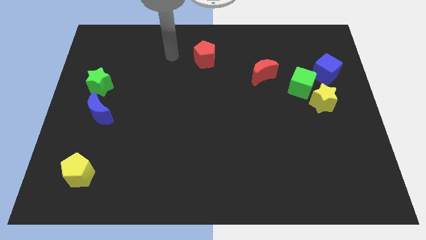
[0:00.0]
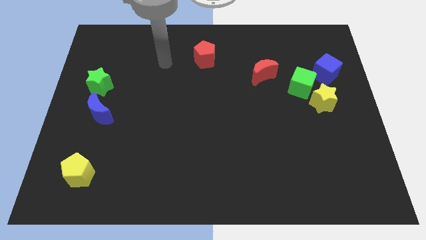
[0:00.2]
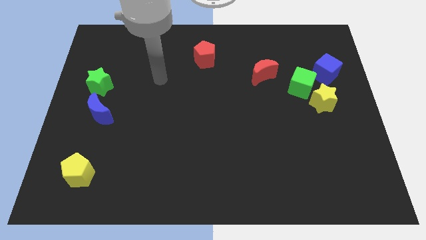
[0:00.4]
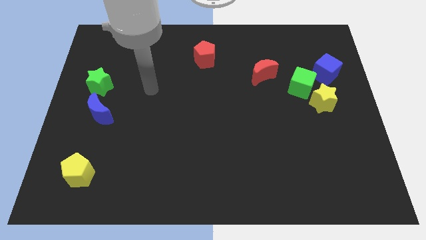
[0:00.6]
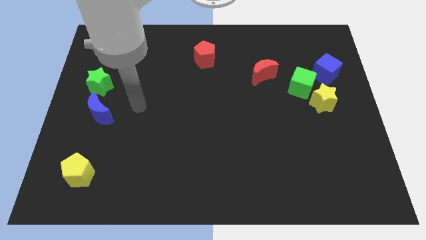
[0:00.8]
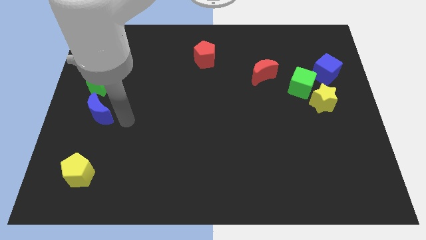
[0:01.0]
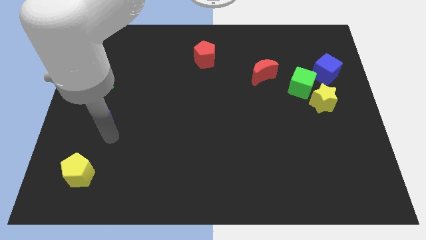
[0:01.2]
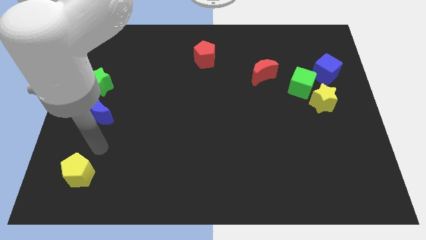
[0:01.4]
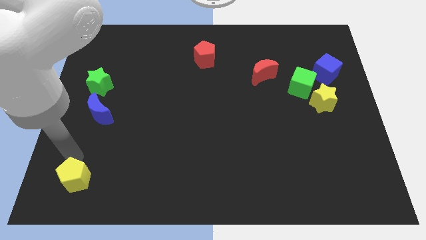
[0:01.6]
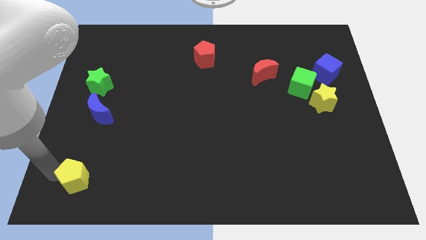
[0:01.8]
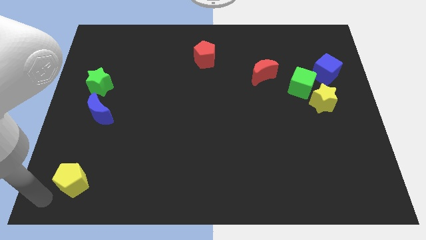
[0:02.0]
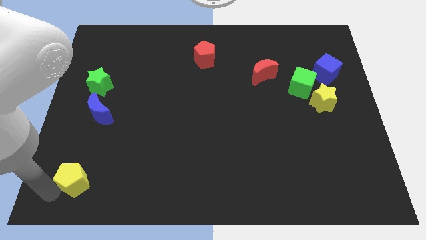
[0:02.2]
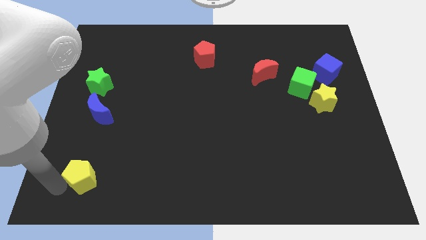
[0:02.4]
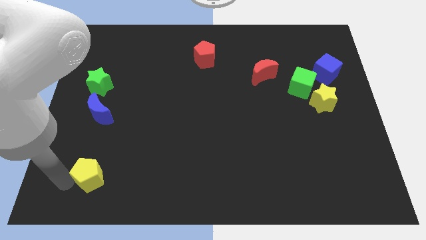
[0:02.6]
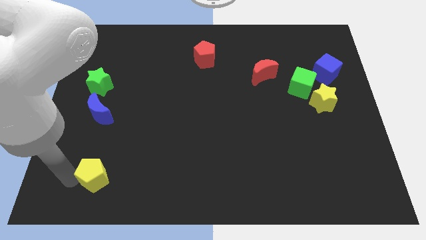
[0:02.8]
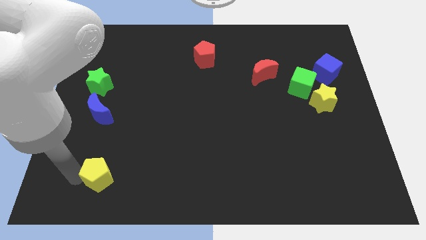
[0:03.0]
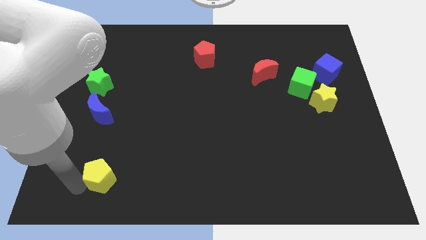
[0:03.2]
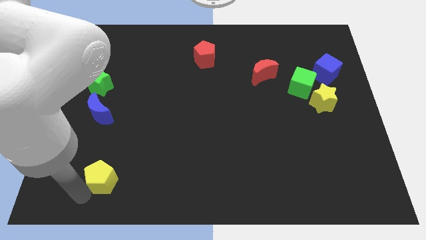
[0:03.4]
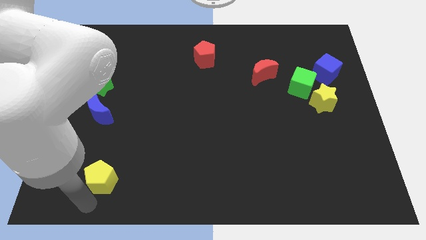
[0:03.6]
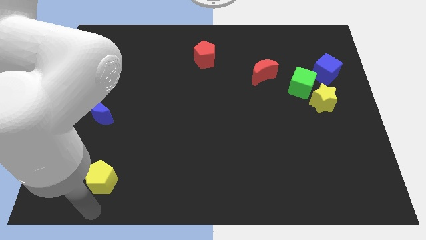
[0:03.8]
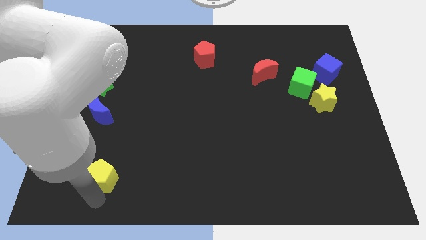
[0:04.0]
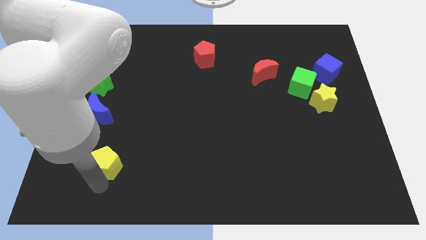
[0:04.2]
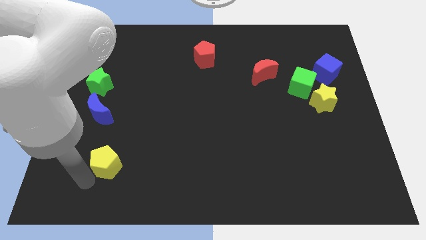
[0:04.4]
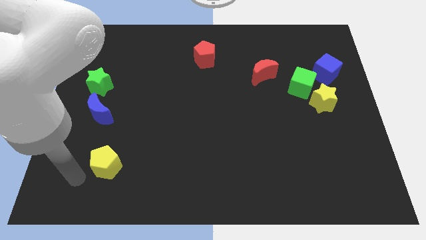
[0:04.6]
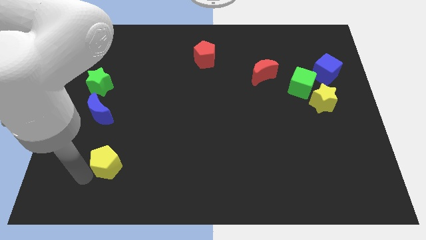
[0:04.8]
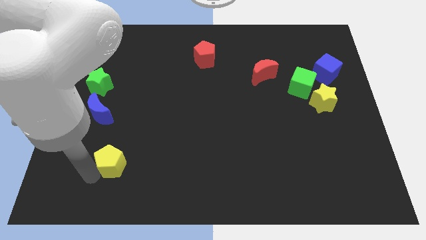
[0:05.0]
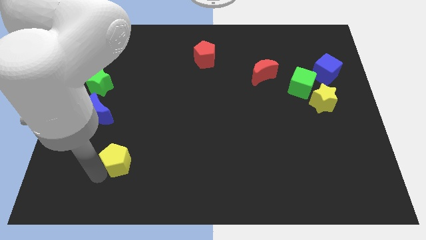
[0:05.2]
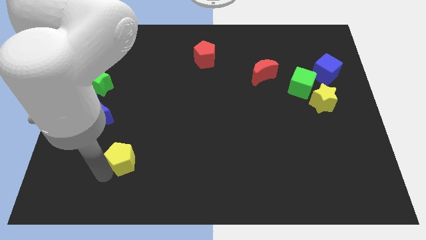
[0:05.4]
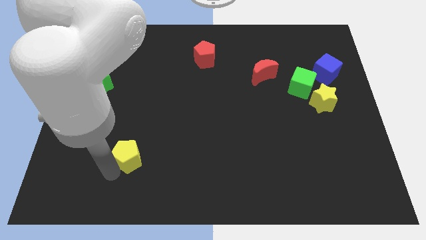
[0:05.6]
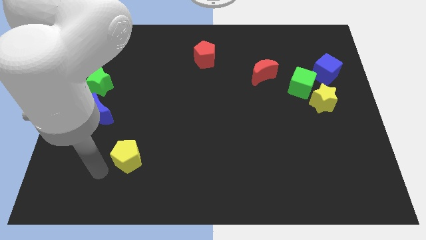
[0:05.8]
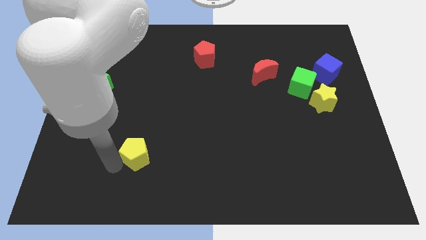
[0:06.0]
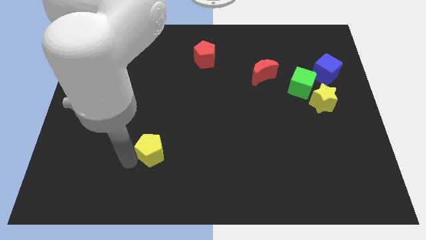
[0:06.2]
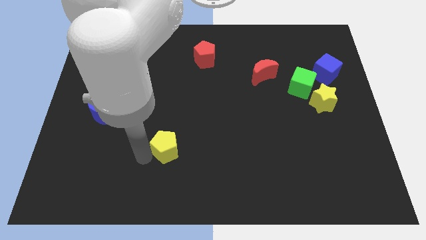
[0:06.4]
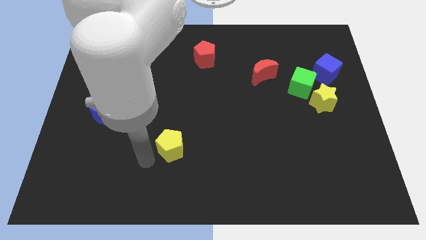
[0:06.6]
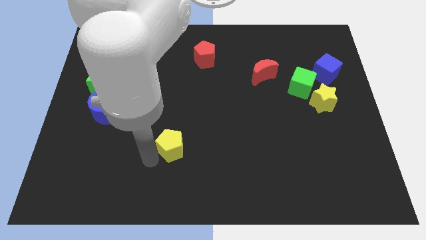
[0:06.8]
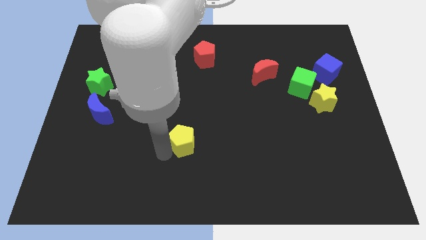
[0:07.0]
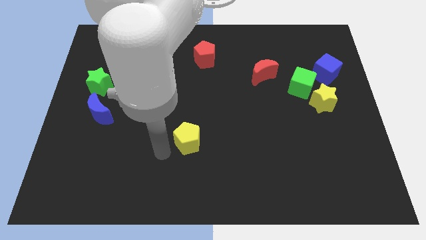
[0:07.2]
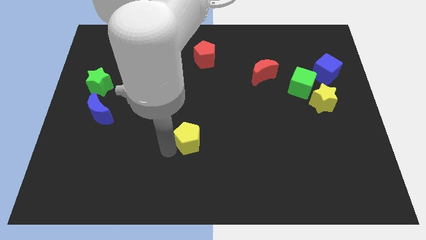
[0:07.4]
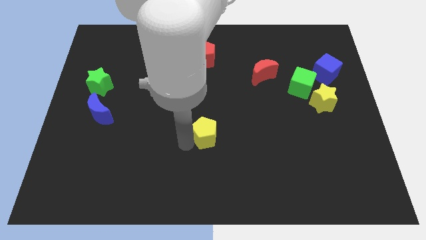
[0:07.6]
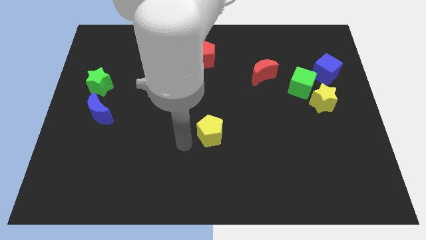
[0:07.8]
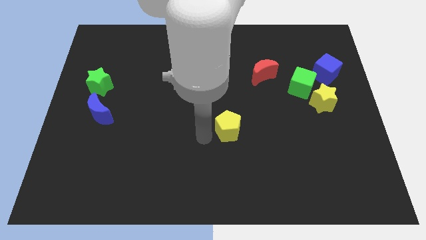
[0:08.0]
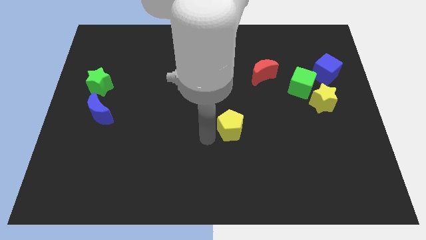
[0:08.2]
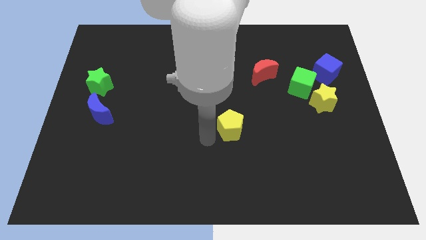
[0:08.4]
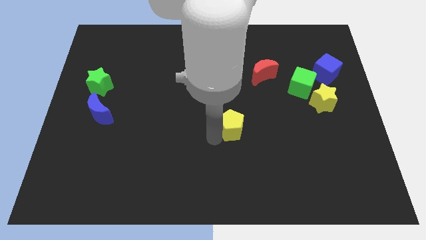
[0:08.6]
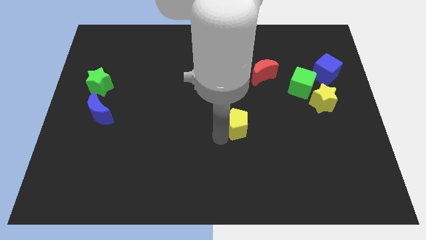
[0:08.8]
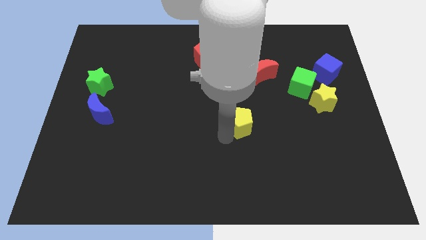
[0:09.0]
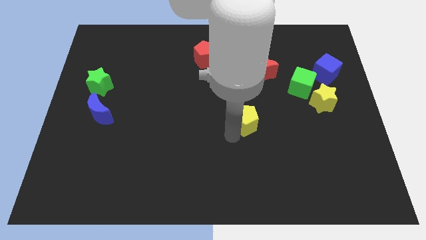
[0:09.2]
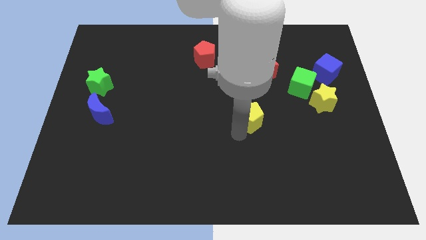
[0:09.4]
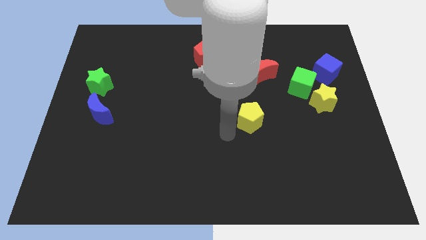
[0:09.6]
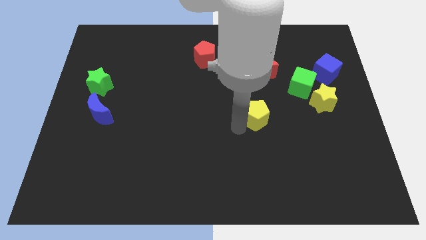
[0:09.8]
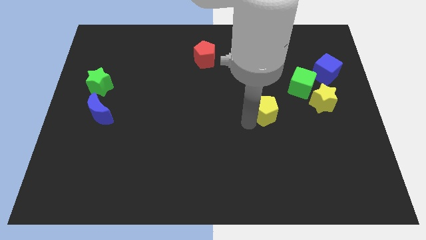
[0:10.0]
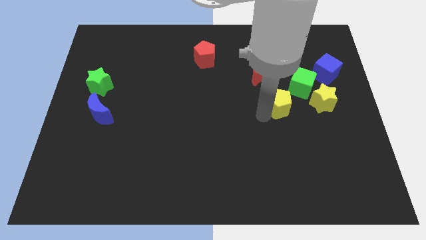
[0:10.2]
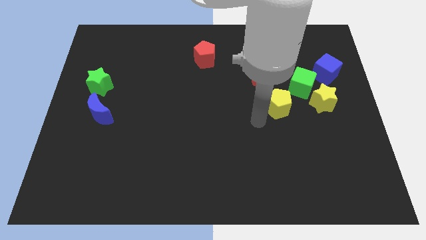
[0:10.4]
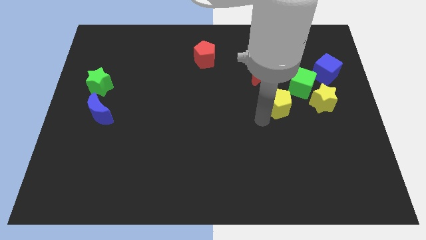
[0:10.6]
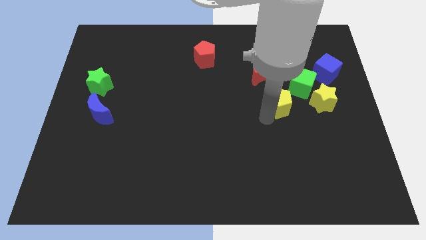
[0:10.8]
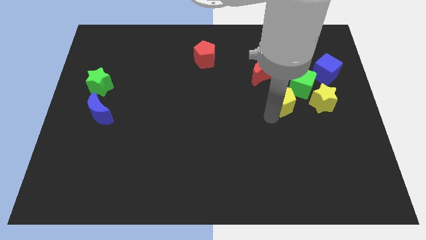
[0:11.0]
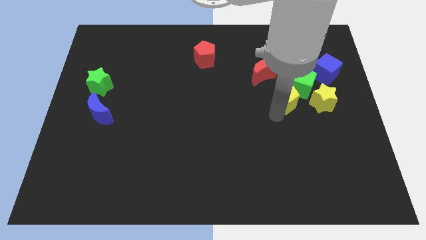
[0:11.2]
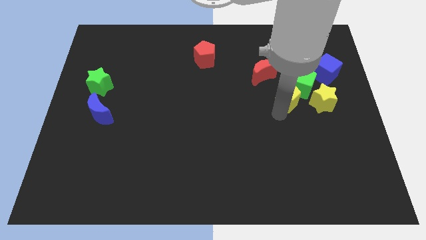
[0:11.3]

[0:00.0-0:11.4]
slide the yellow pentagon towards the green cube

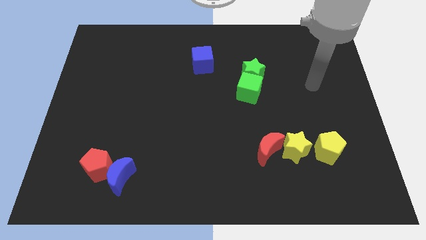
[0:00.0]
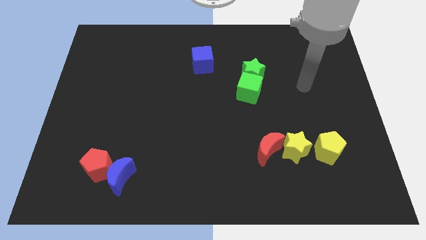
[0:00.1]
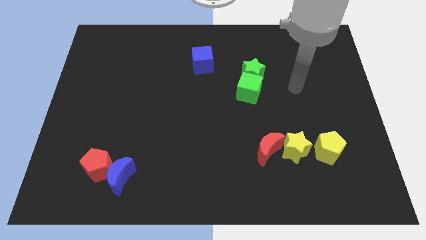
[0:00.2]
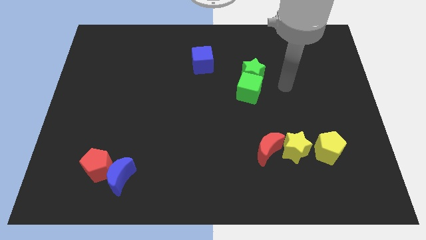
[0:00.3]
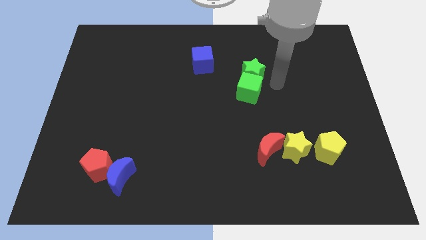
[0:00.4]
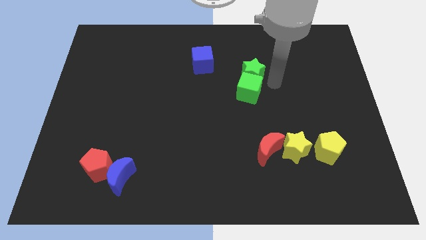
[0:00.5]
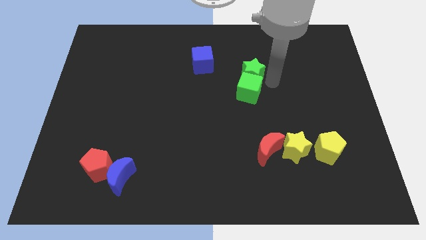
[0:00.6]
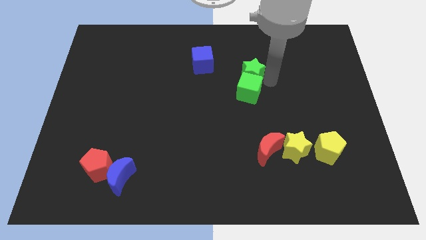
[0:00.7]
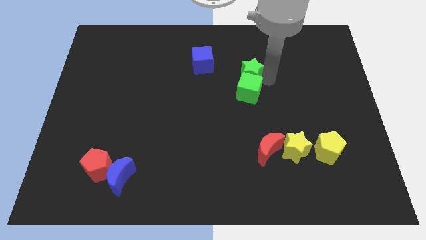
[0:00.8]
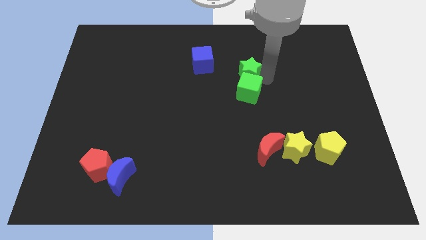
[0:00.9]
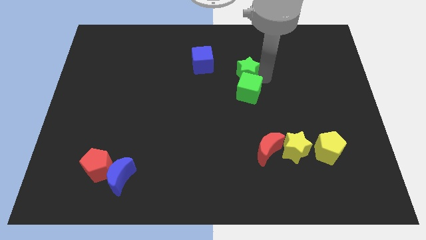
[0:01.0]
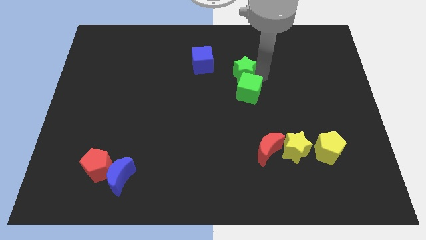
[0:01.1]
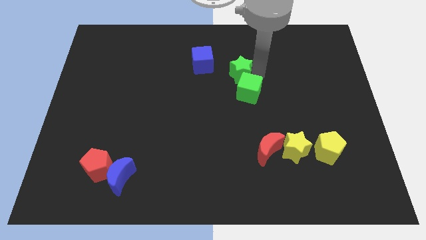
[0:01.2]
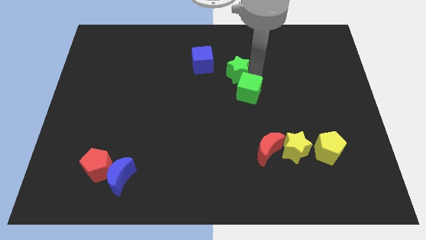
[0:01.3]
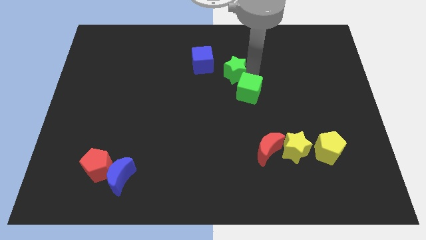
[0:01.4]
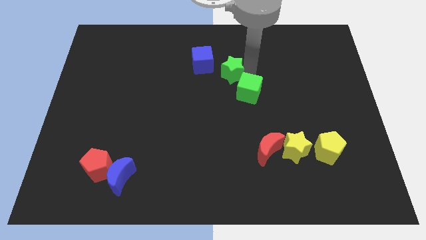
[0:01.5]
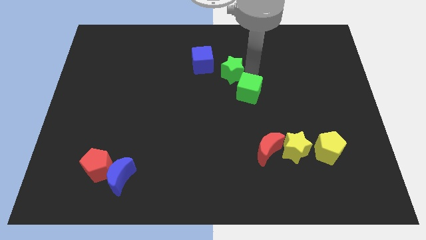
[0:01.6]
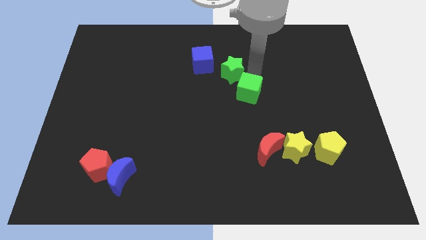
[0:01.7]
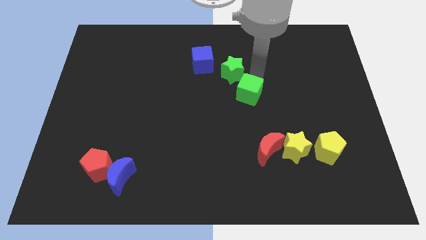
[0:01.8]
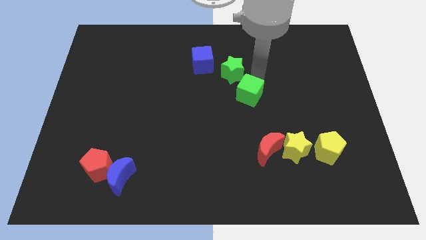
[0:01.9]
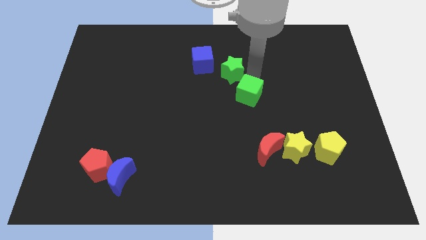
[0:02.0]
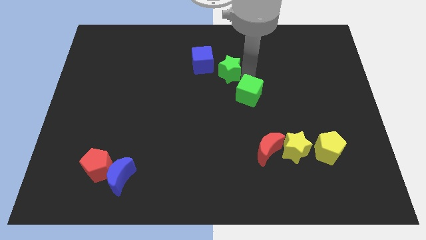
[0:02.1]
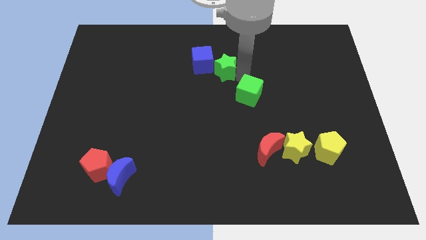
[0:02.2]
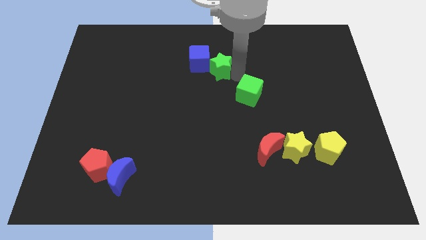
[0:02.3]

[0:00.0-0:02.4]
slide the green star close to the blue cube
